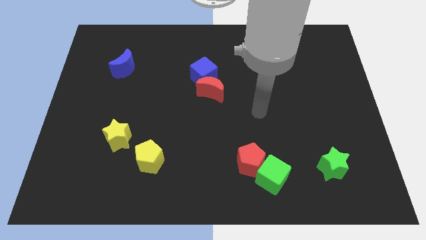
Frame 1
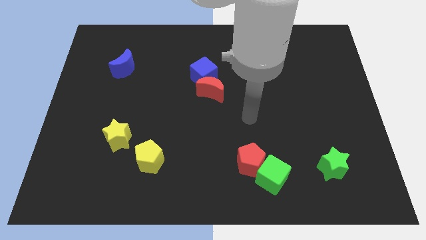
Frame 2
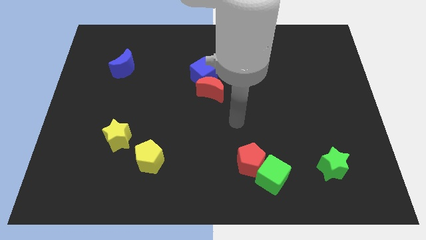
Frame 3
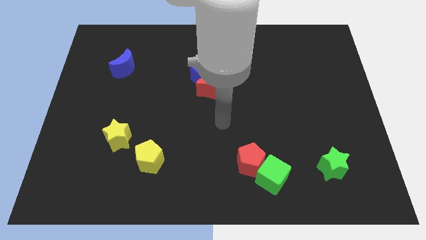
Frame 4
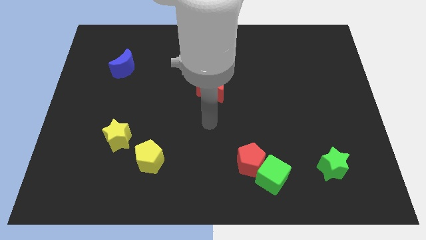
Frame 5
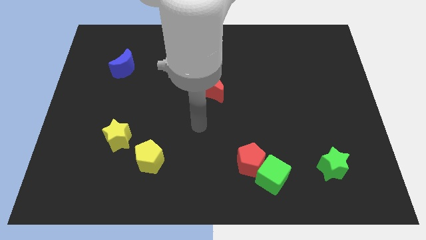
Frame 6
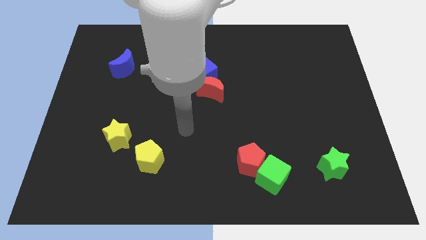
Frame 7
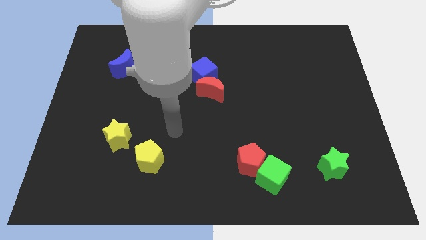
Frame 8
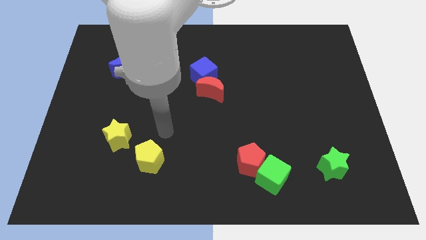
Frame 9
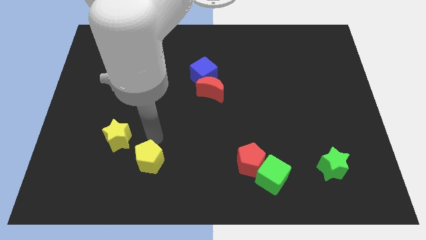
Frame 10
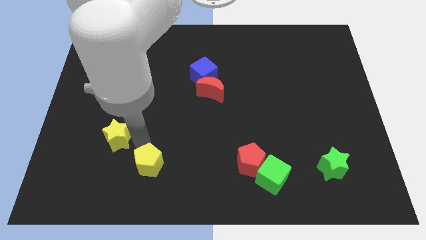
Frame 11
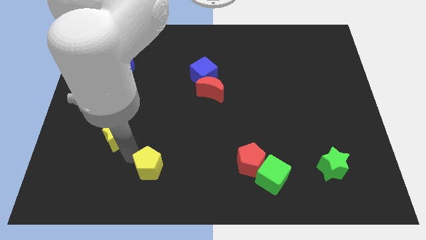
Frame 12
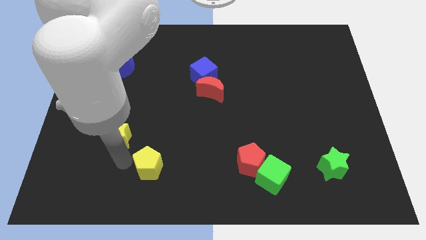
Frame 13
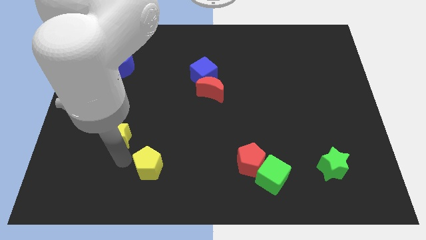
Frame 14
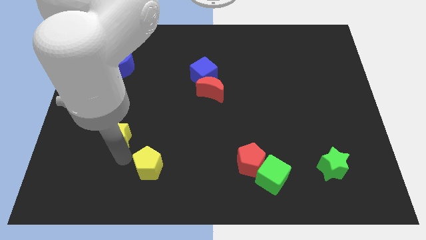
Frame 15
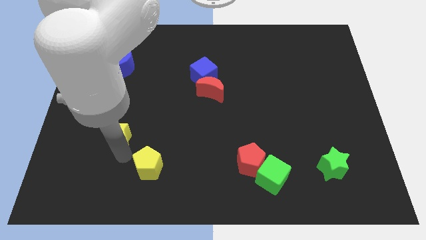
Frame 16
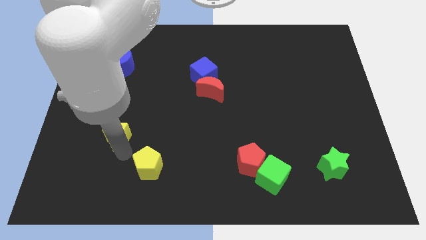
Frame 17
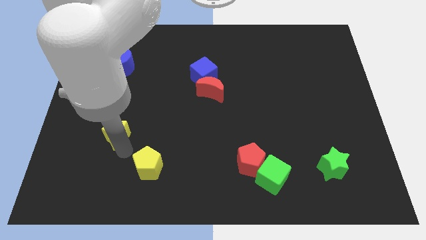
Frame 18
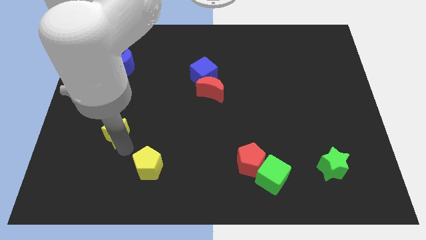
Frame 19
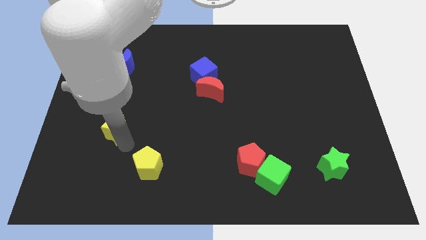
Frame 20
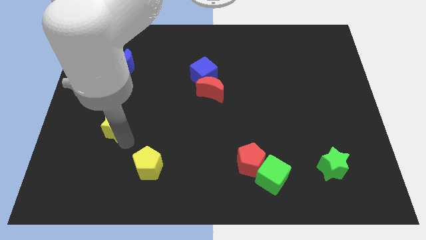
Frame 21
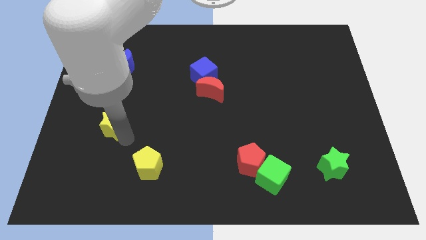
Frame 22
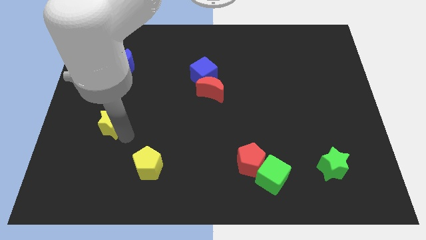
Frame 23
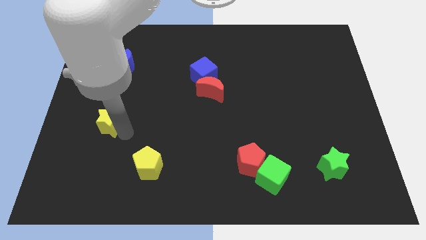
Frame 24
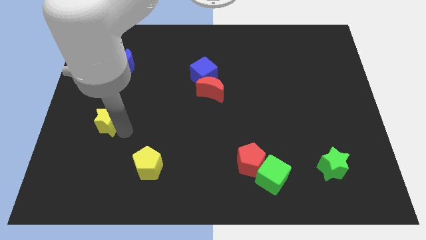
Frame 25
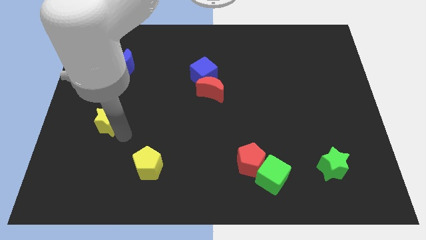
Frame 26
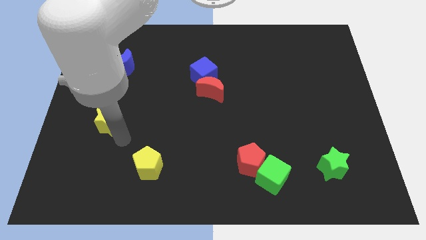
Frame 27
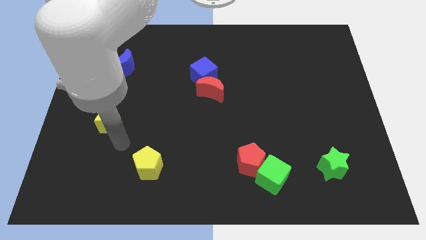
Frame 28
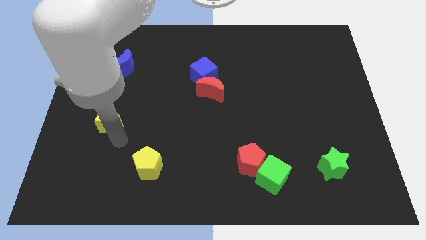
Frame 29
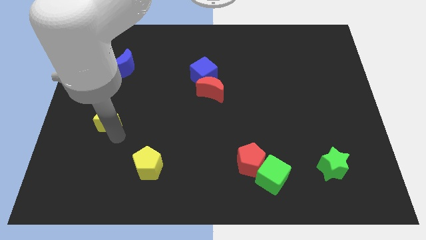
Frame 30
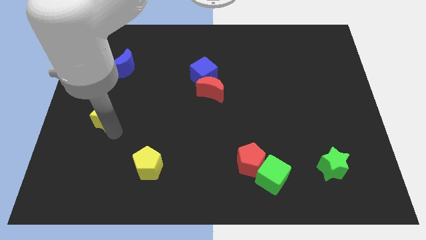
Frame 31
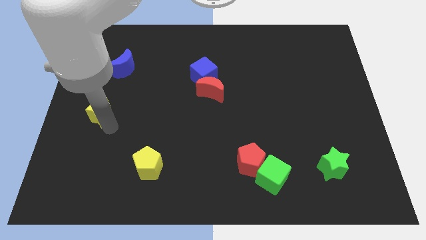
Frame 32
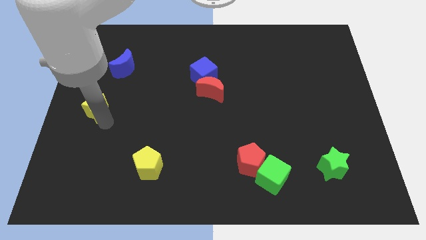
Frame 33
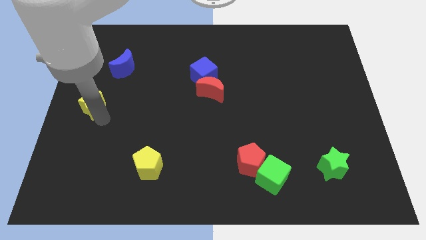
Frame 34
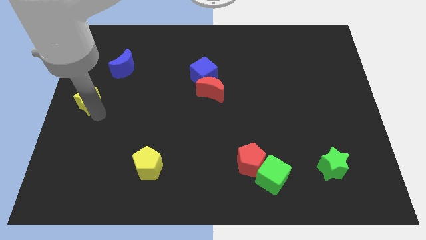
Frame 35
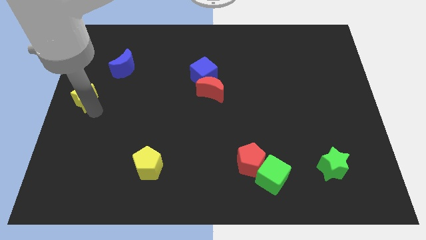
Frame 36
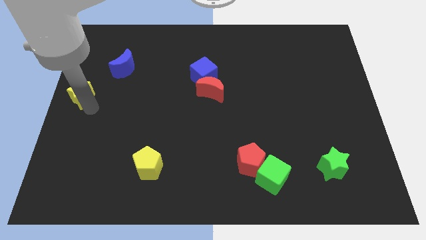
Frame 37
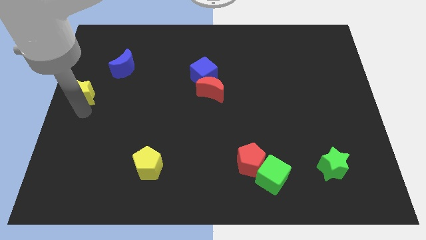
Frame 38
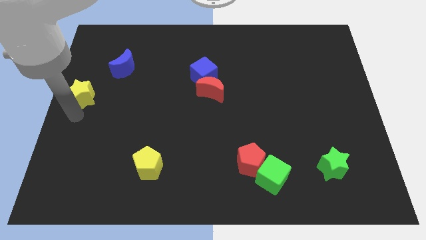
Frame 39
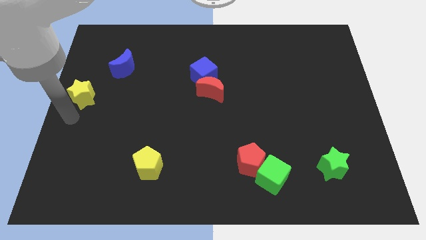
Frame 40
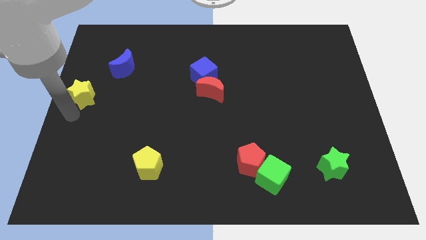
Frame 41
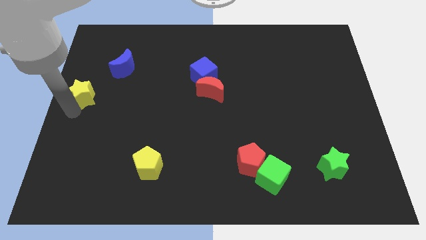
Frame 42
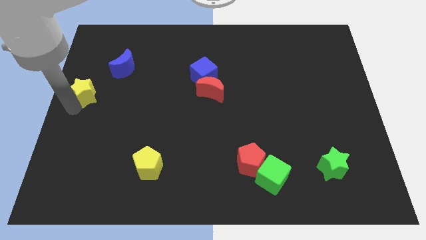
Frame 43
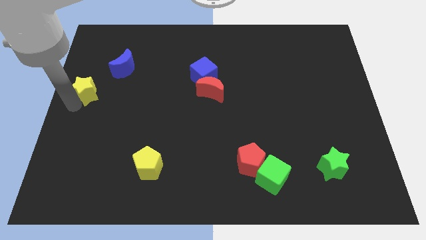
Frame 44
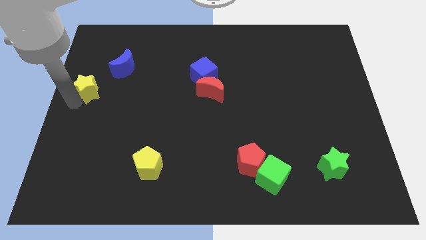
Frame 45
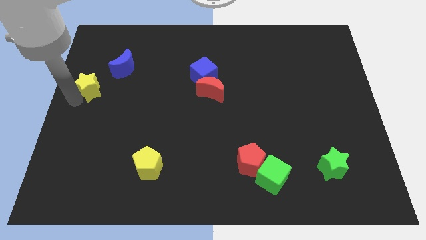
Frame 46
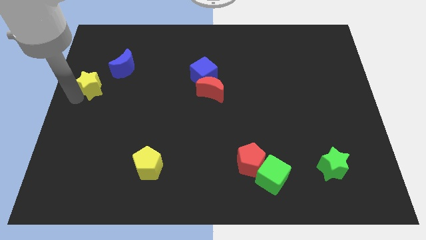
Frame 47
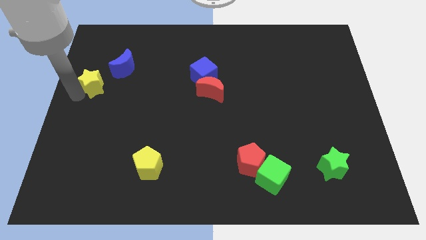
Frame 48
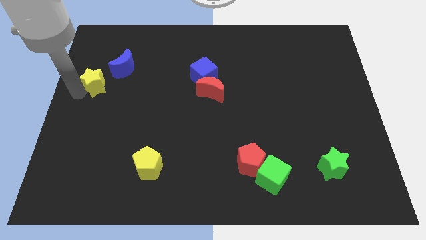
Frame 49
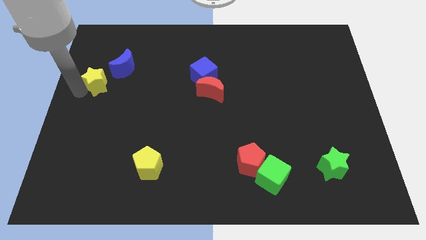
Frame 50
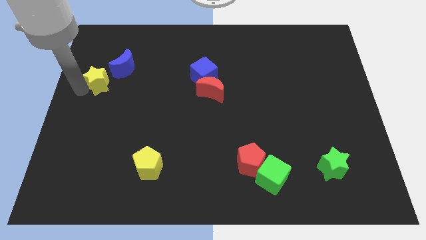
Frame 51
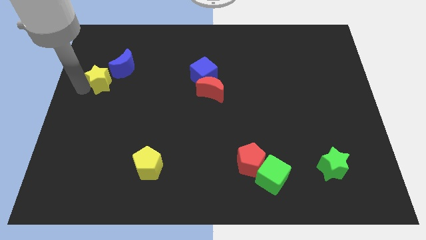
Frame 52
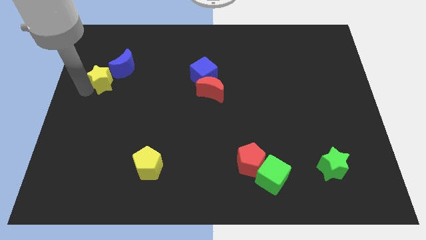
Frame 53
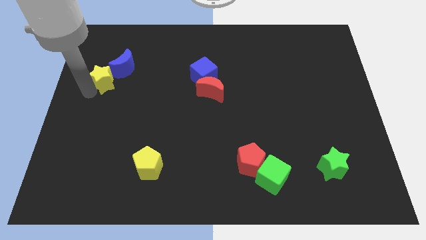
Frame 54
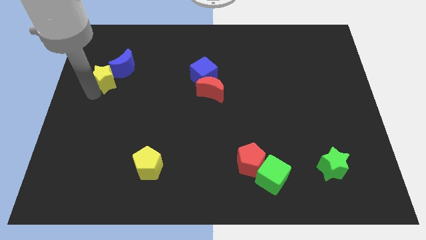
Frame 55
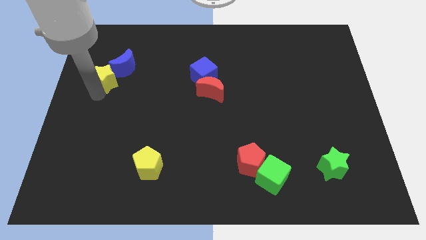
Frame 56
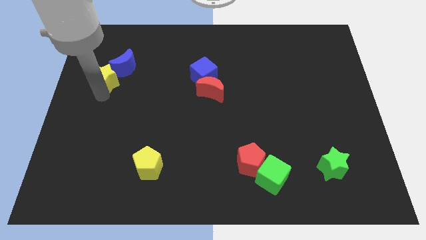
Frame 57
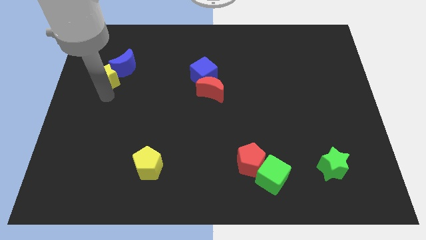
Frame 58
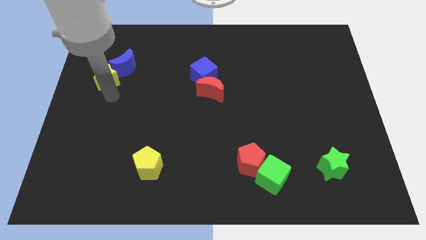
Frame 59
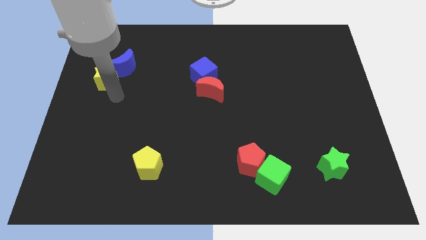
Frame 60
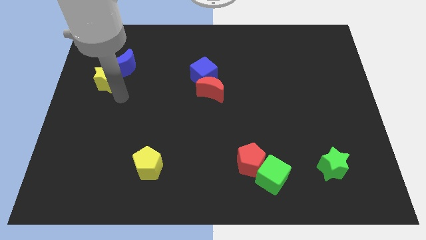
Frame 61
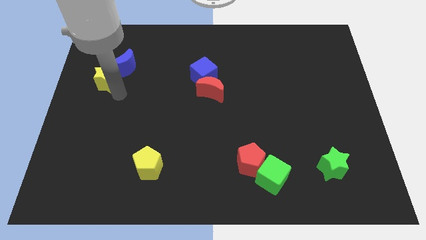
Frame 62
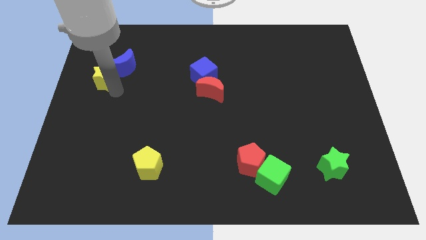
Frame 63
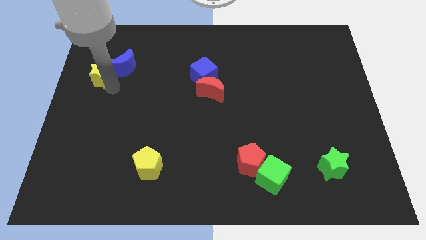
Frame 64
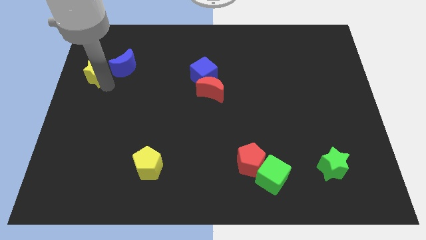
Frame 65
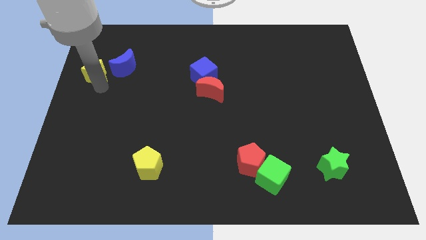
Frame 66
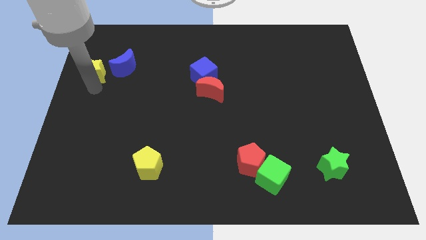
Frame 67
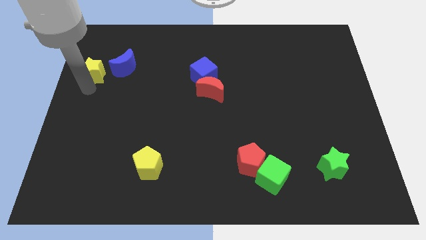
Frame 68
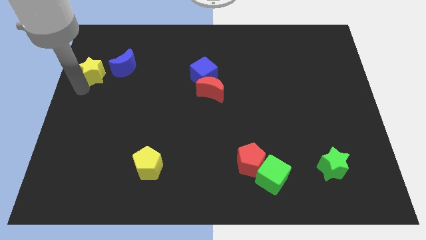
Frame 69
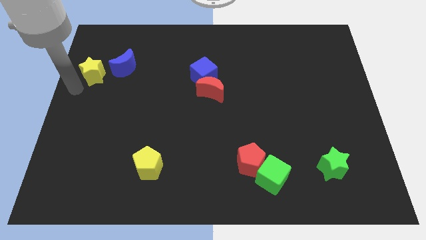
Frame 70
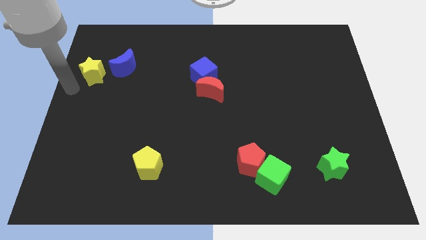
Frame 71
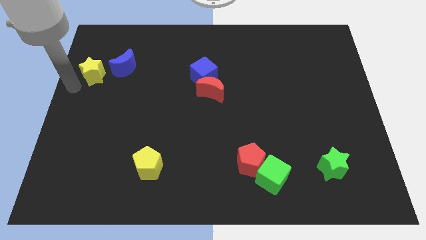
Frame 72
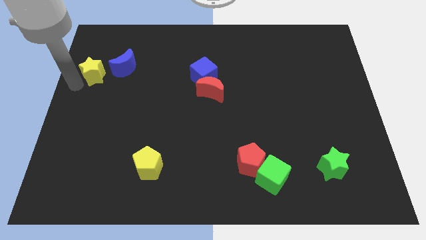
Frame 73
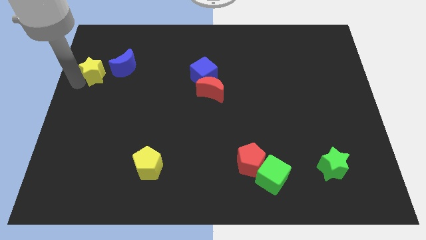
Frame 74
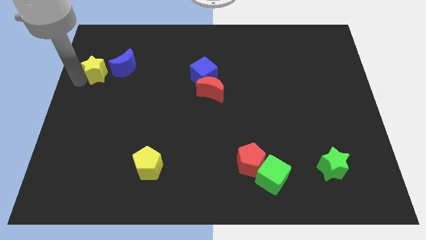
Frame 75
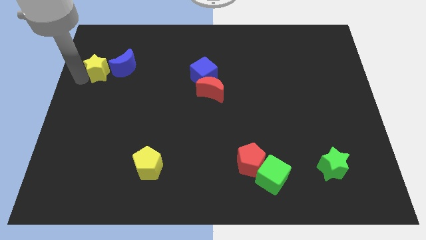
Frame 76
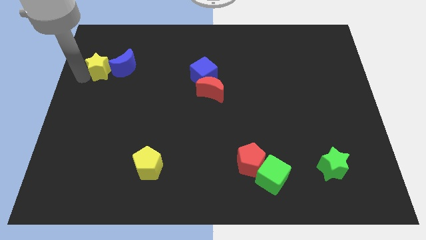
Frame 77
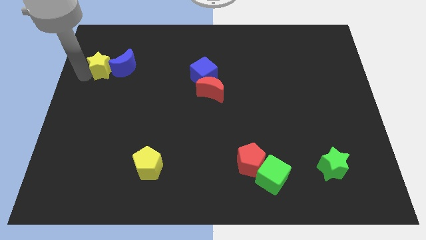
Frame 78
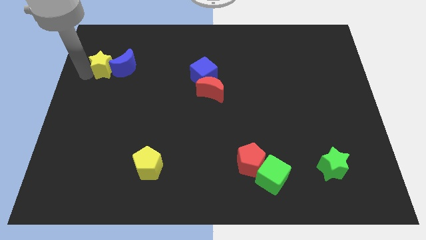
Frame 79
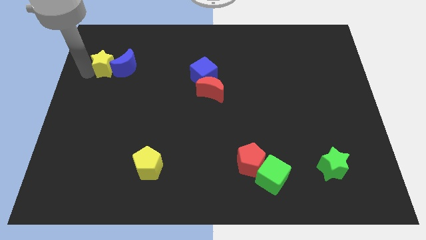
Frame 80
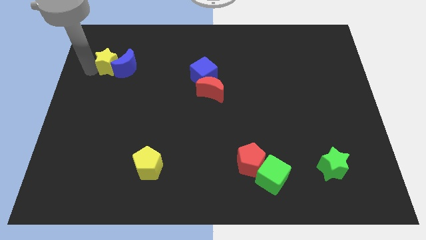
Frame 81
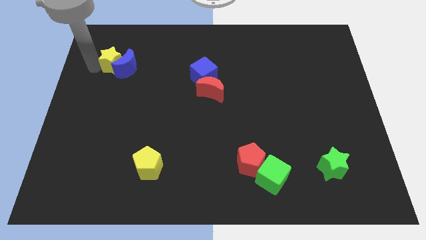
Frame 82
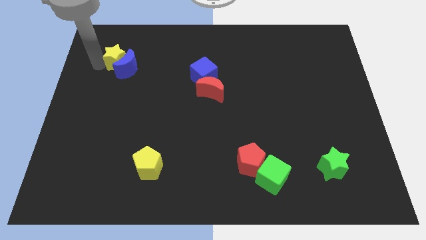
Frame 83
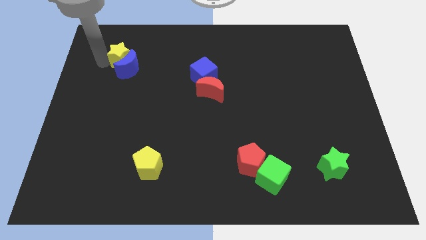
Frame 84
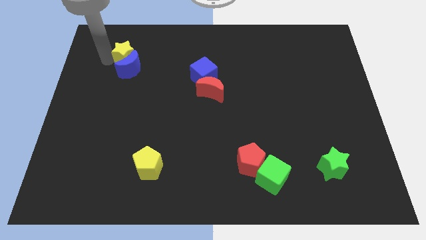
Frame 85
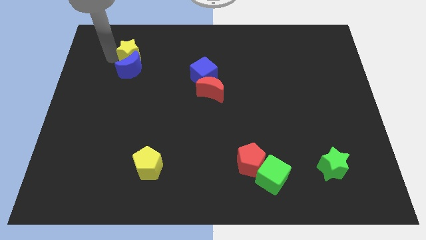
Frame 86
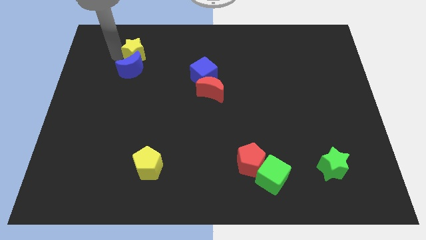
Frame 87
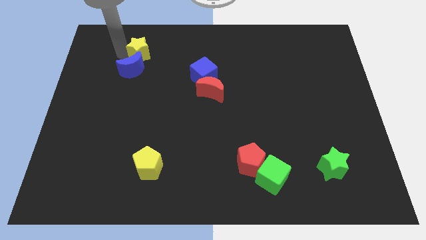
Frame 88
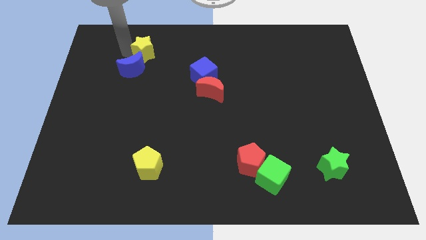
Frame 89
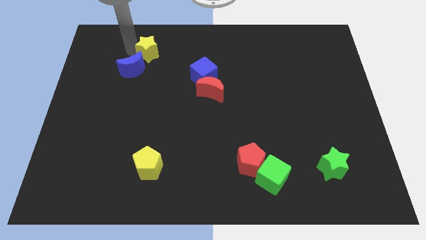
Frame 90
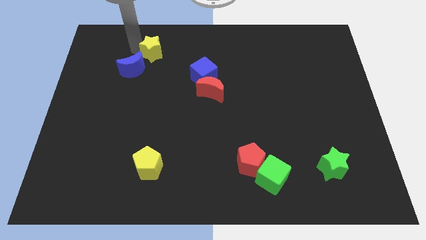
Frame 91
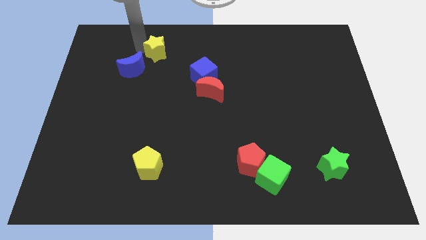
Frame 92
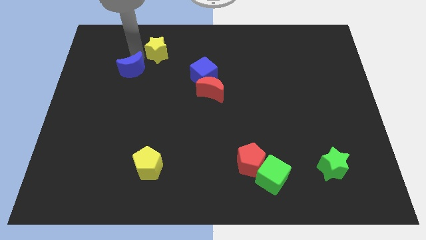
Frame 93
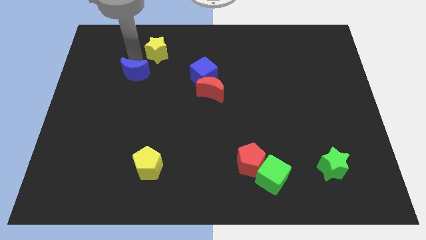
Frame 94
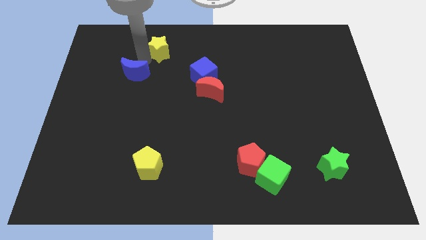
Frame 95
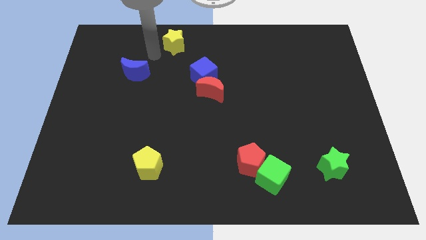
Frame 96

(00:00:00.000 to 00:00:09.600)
push the yellow star to the top
